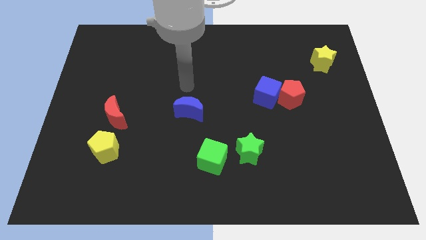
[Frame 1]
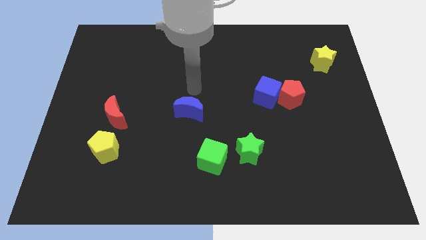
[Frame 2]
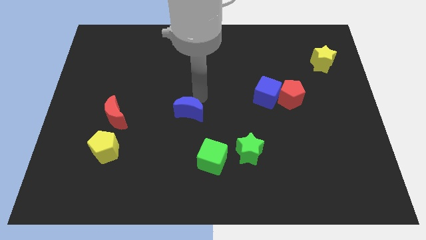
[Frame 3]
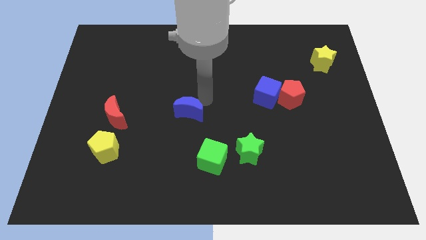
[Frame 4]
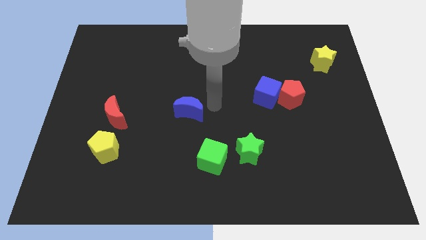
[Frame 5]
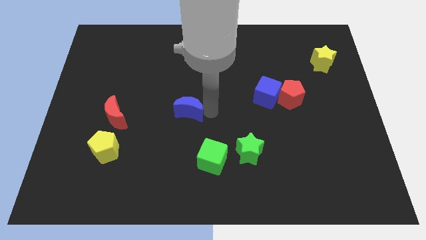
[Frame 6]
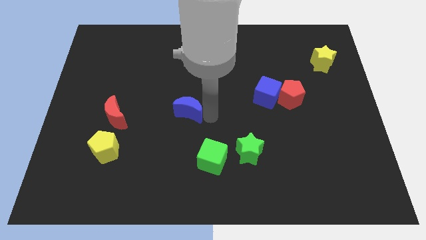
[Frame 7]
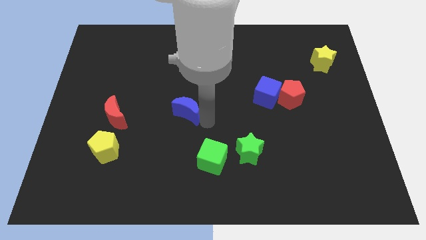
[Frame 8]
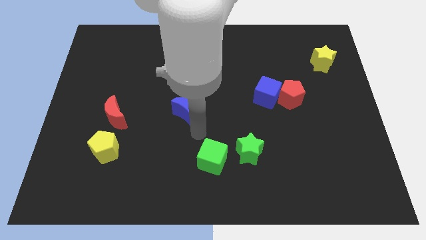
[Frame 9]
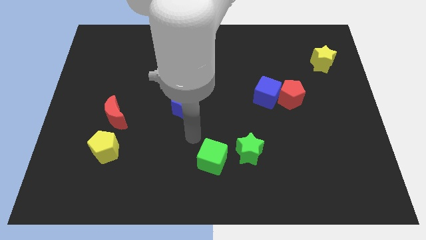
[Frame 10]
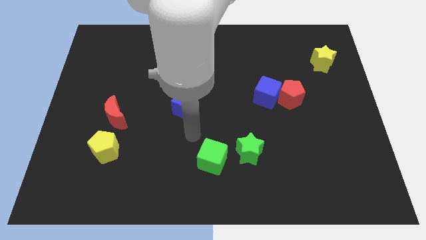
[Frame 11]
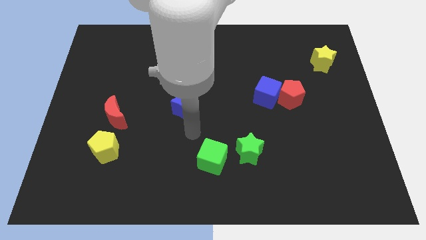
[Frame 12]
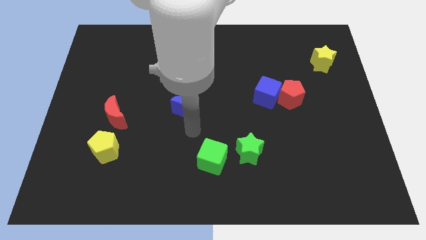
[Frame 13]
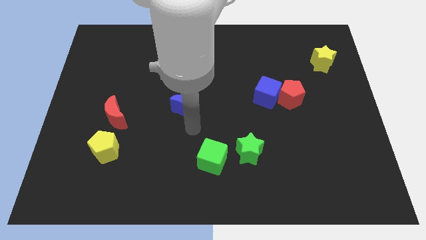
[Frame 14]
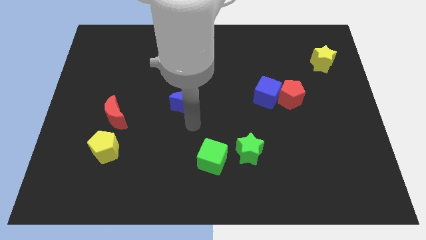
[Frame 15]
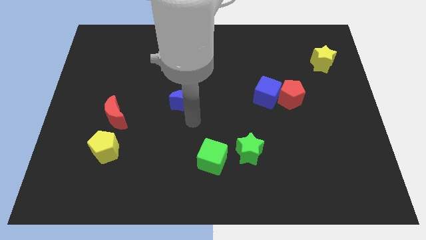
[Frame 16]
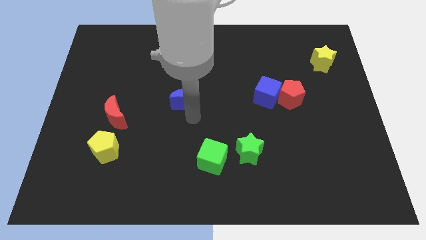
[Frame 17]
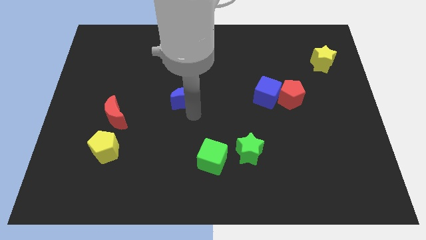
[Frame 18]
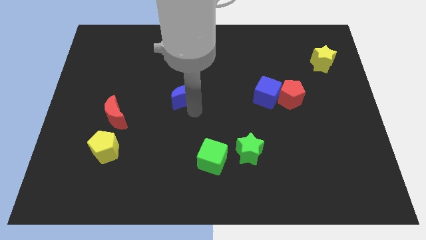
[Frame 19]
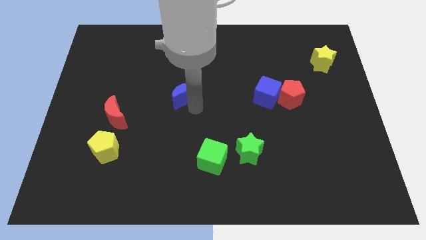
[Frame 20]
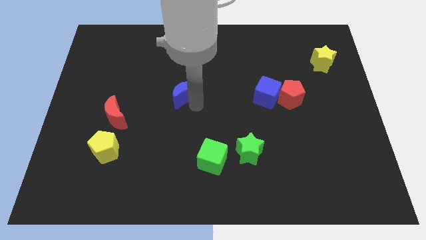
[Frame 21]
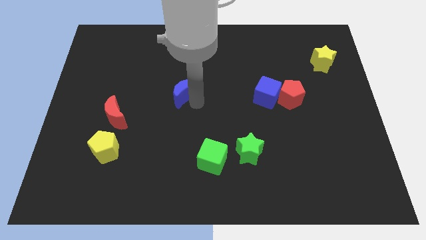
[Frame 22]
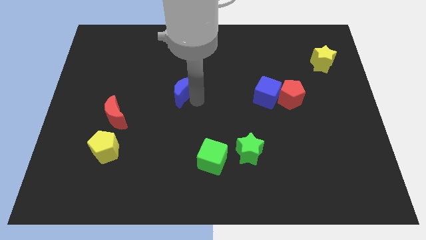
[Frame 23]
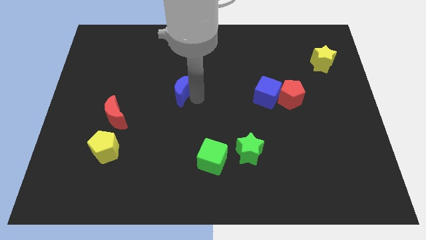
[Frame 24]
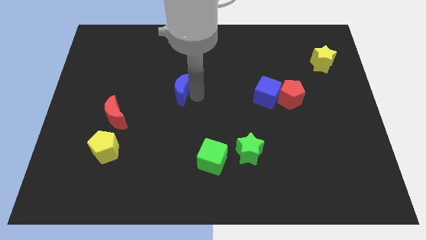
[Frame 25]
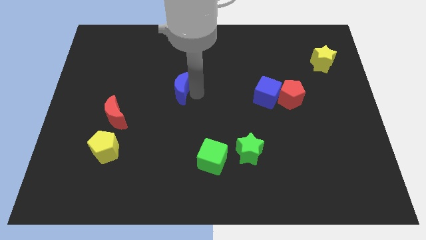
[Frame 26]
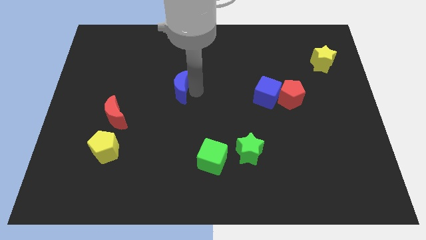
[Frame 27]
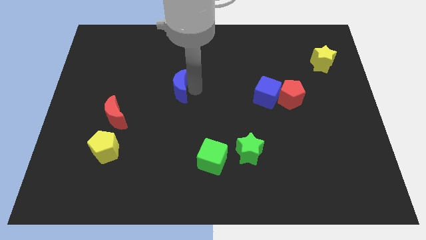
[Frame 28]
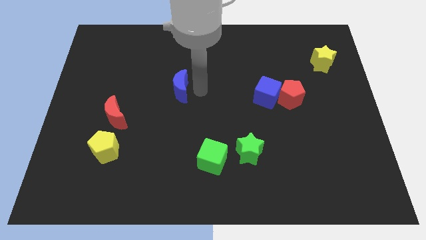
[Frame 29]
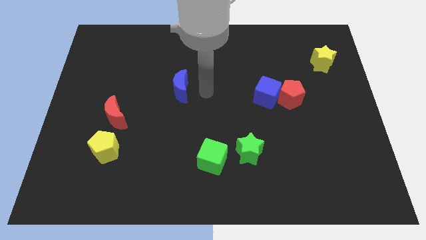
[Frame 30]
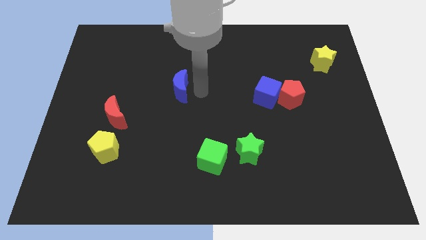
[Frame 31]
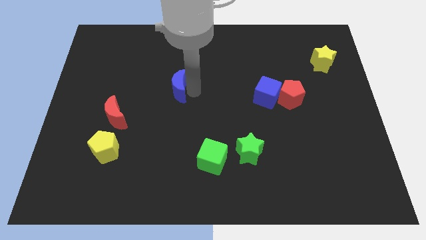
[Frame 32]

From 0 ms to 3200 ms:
slide the blue moon up and to the left diagonally a little bit

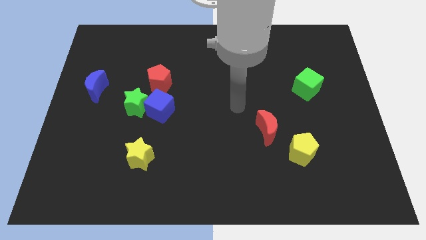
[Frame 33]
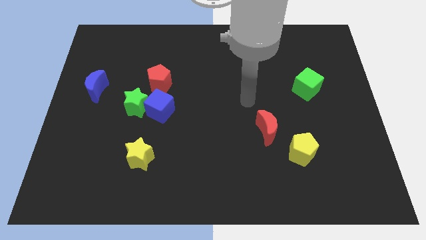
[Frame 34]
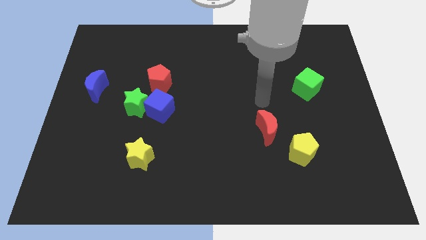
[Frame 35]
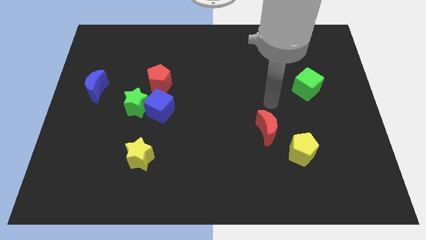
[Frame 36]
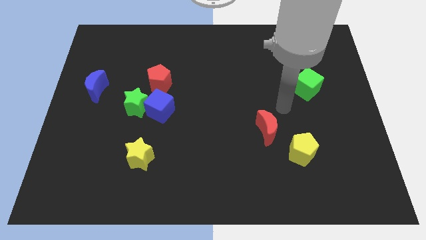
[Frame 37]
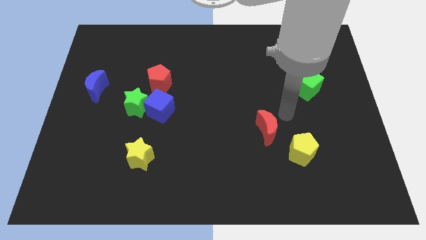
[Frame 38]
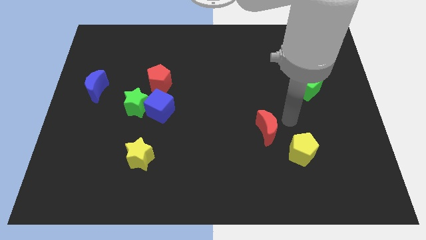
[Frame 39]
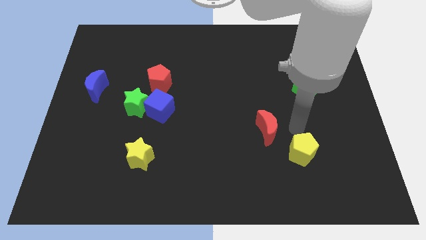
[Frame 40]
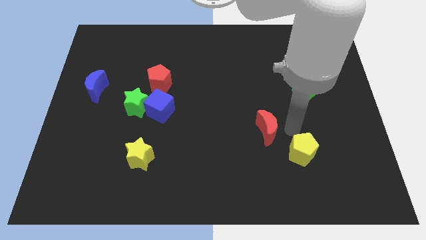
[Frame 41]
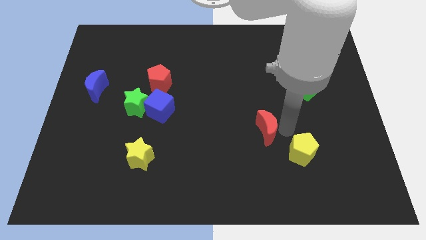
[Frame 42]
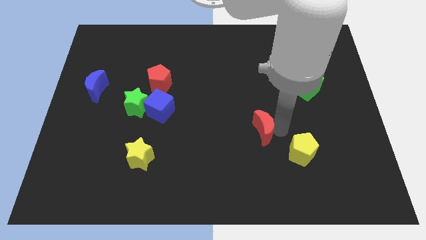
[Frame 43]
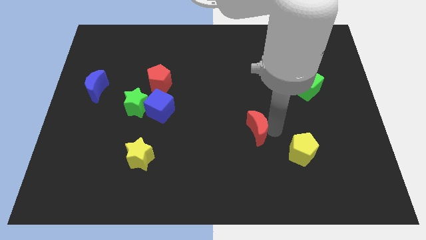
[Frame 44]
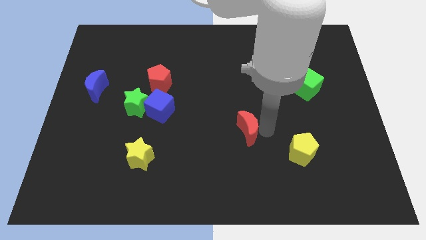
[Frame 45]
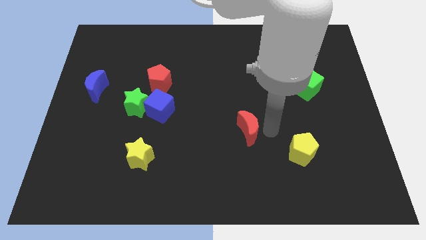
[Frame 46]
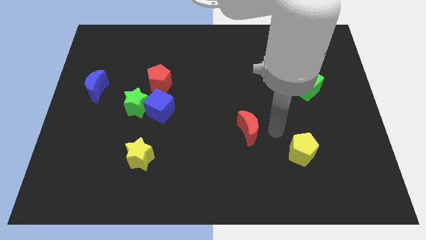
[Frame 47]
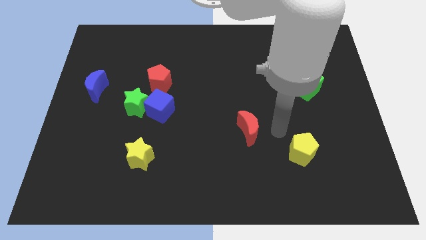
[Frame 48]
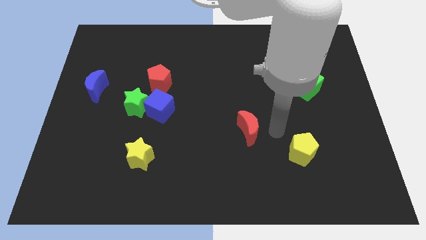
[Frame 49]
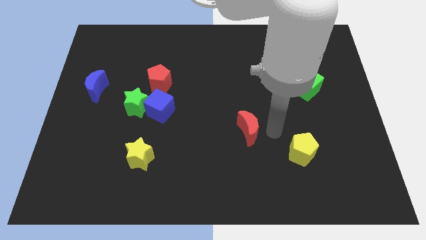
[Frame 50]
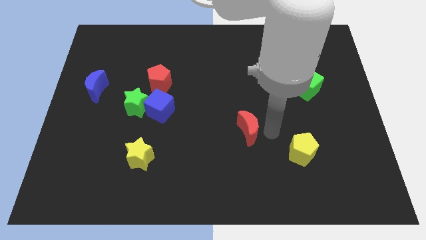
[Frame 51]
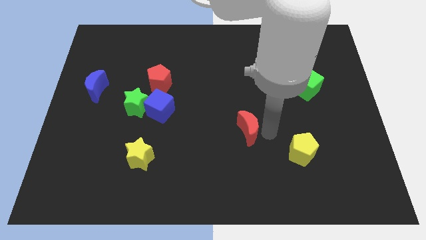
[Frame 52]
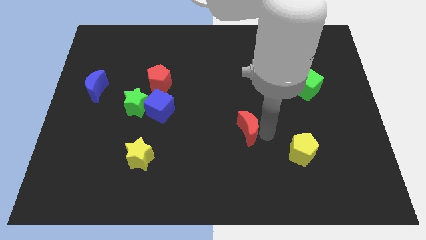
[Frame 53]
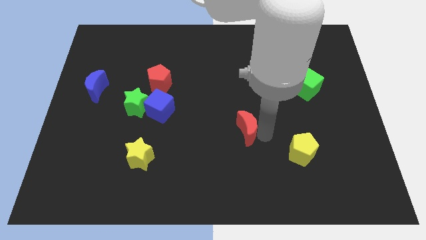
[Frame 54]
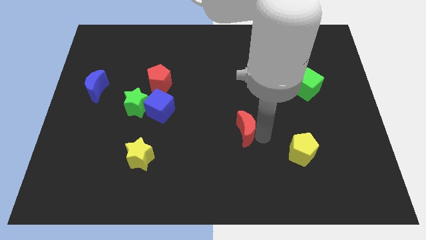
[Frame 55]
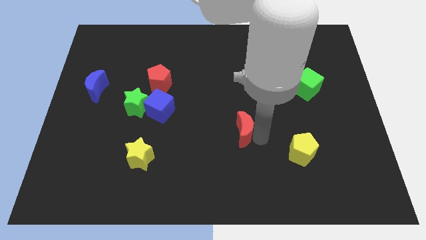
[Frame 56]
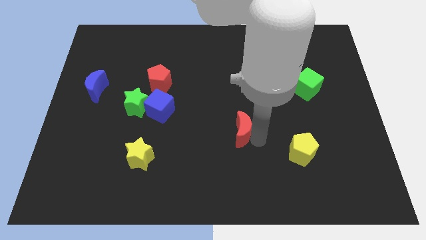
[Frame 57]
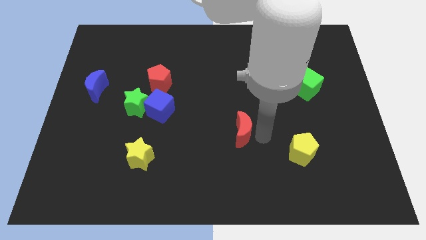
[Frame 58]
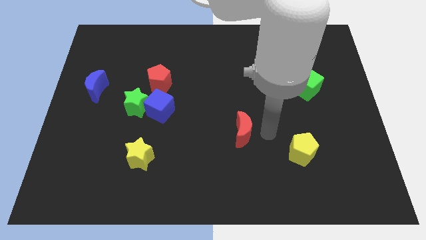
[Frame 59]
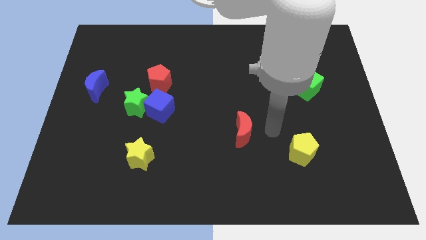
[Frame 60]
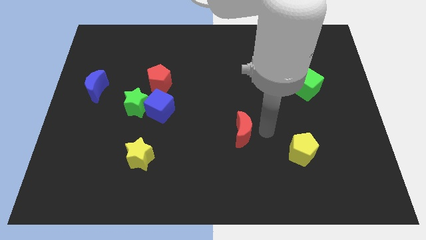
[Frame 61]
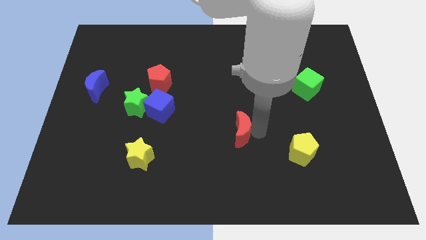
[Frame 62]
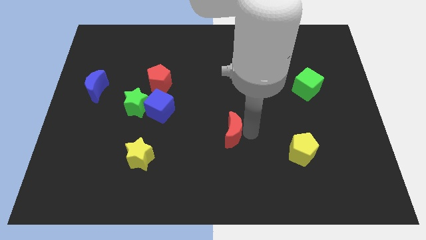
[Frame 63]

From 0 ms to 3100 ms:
slightly slide the red moon to the left

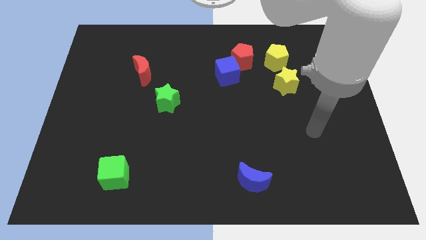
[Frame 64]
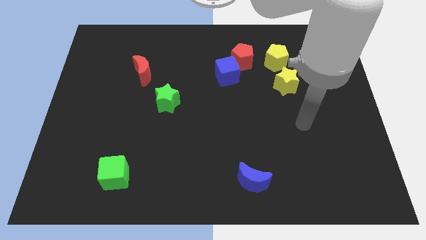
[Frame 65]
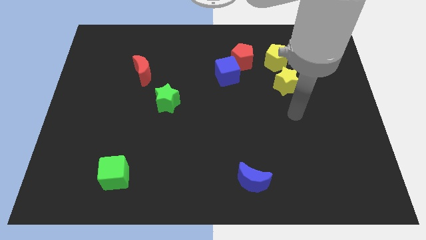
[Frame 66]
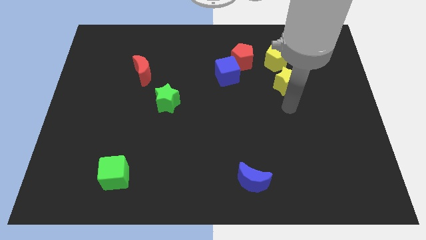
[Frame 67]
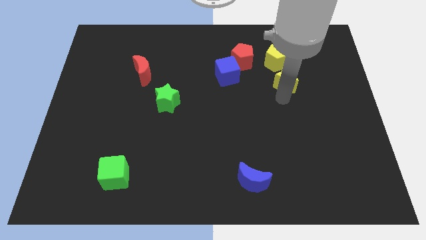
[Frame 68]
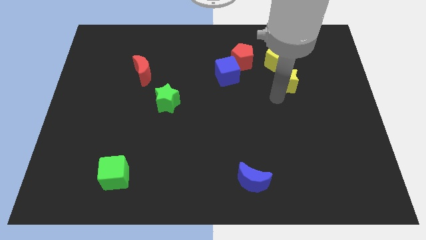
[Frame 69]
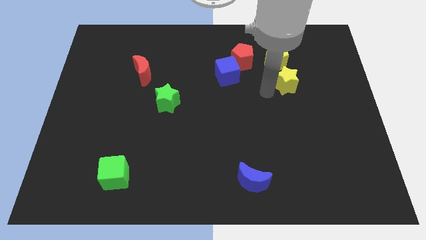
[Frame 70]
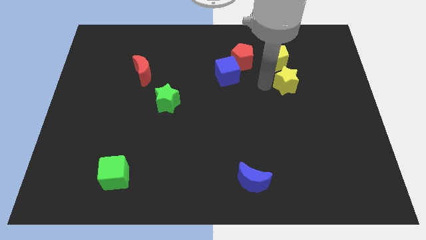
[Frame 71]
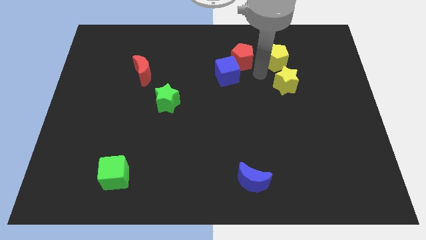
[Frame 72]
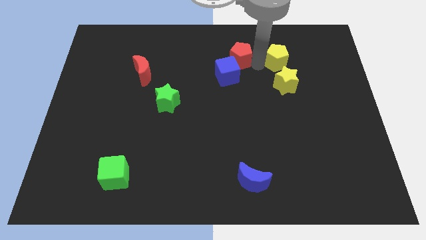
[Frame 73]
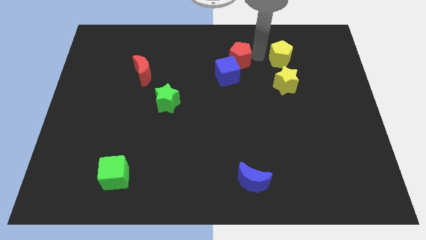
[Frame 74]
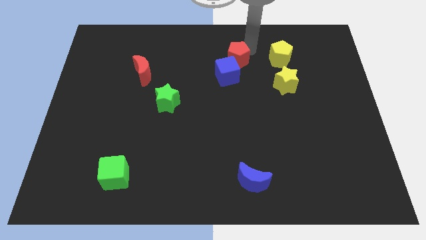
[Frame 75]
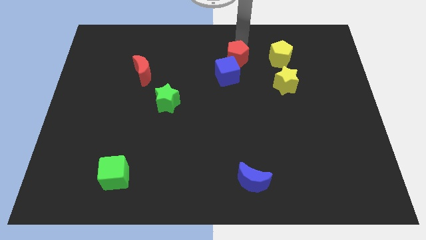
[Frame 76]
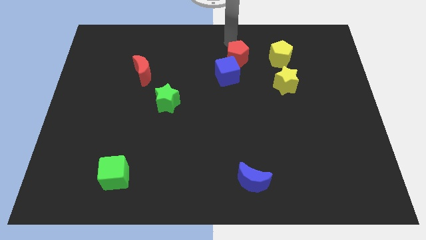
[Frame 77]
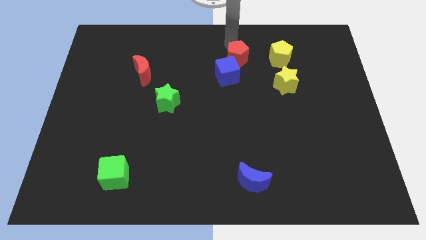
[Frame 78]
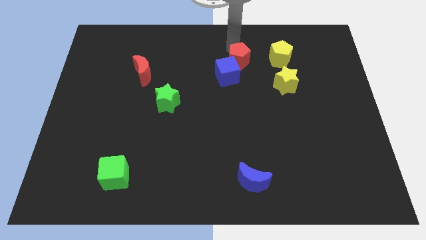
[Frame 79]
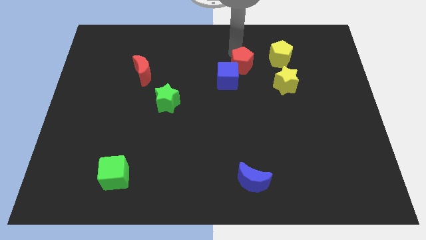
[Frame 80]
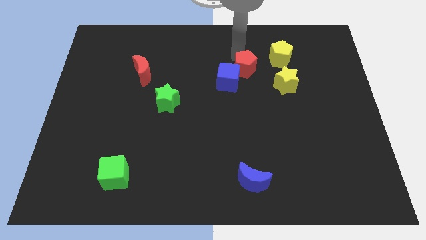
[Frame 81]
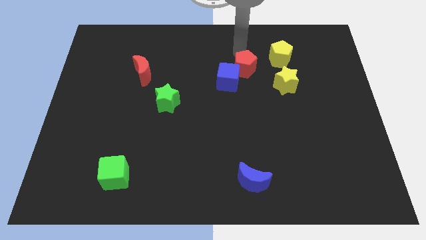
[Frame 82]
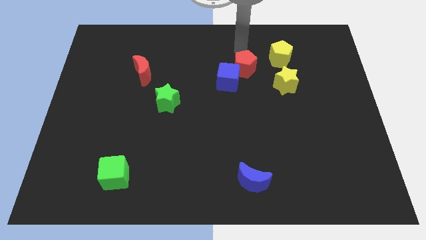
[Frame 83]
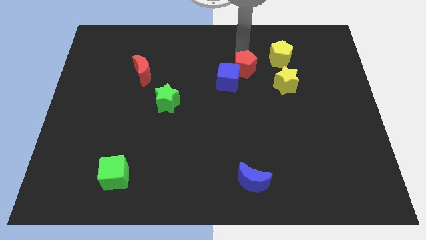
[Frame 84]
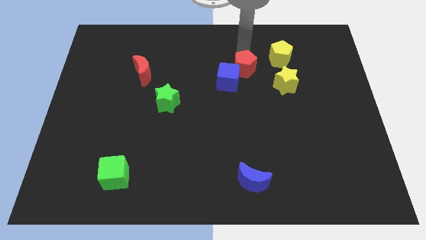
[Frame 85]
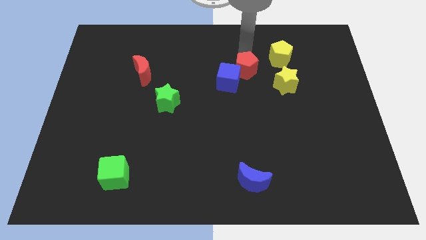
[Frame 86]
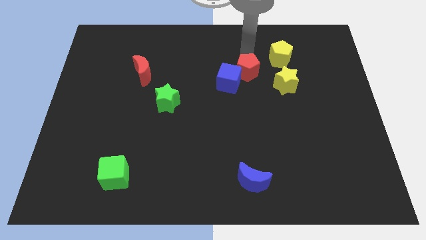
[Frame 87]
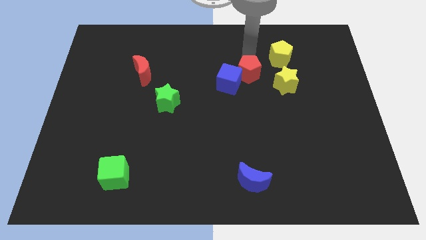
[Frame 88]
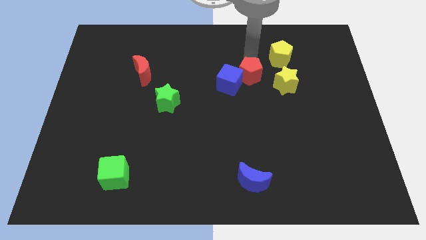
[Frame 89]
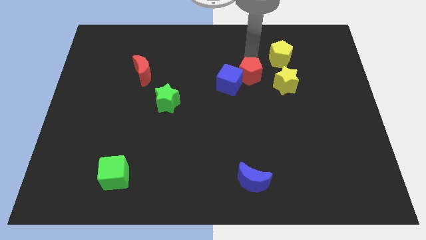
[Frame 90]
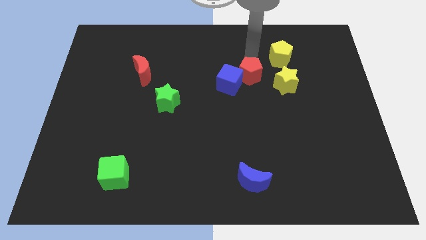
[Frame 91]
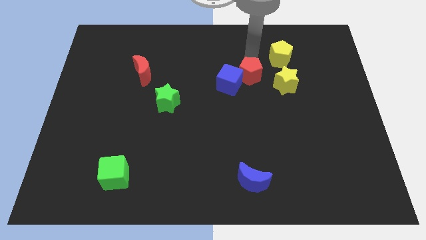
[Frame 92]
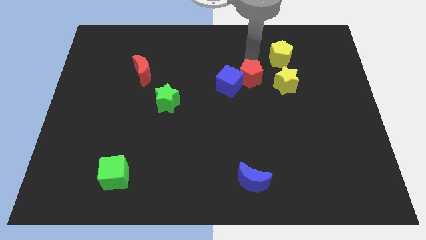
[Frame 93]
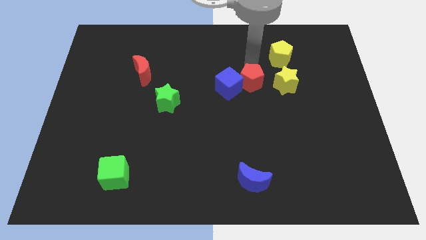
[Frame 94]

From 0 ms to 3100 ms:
push the red pentagon a little bit downwards
